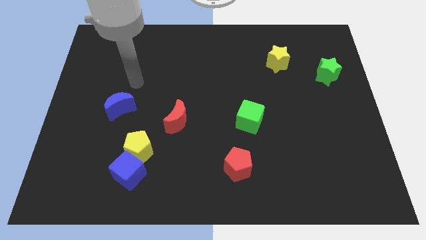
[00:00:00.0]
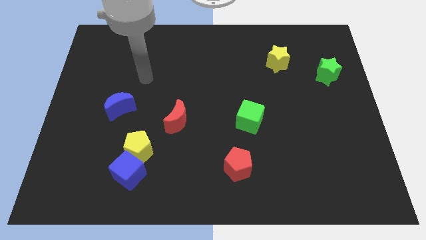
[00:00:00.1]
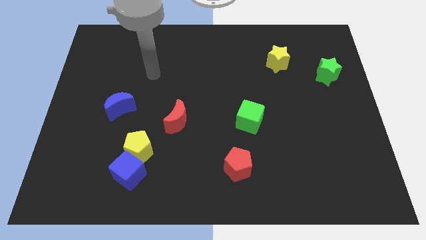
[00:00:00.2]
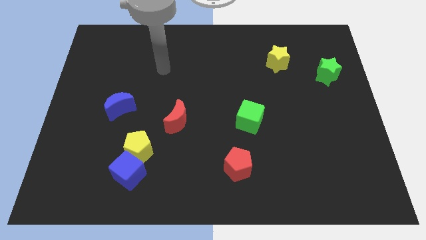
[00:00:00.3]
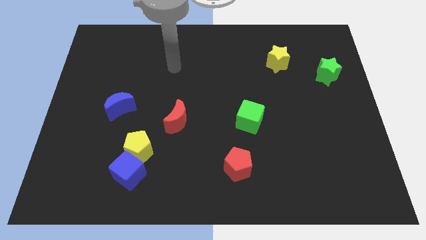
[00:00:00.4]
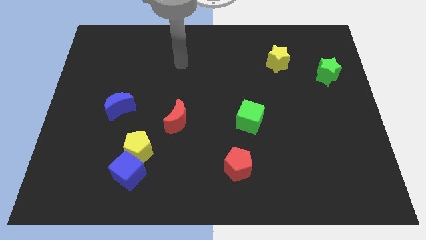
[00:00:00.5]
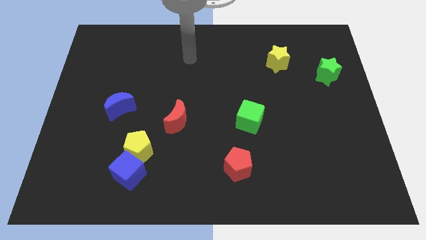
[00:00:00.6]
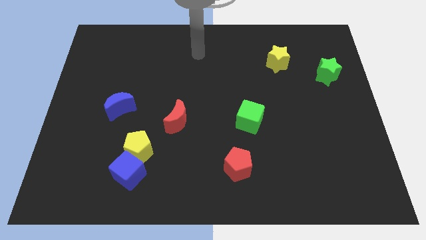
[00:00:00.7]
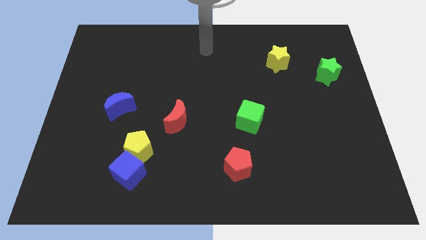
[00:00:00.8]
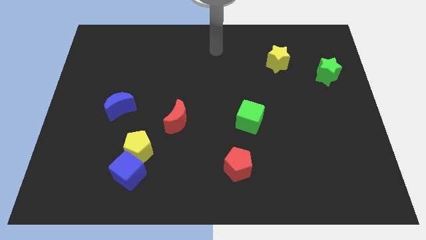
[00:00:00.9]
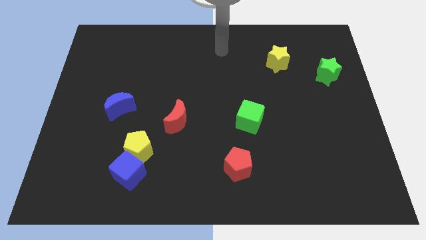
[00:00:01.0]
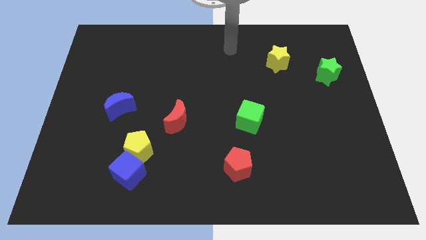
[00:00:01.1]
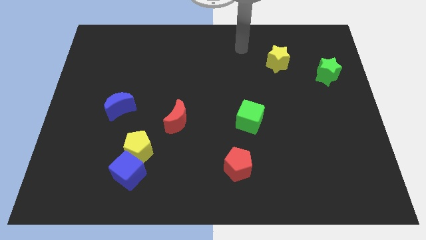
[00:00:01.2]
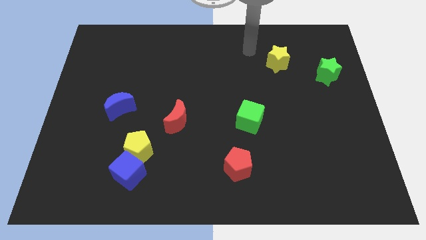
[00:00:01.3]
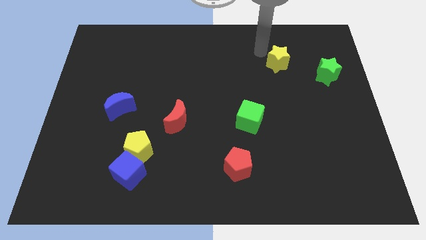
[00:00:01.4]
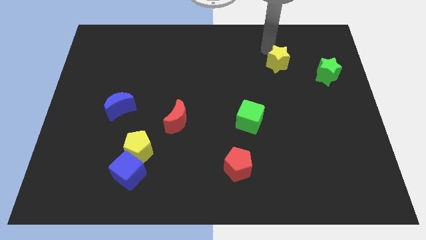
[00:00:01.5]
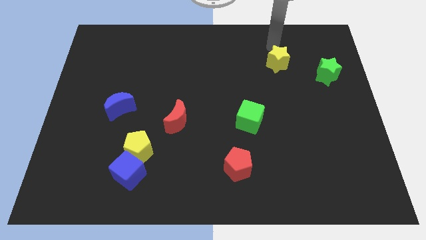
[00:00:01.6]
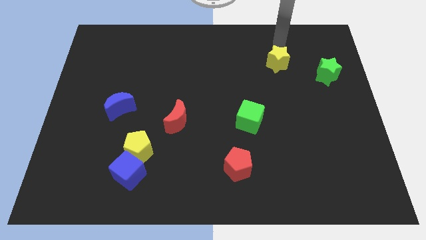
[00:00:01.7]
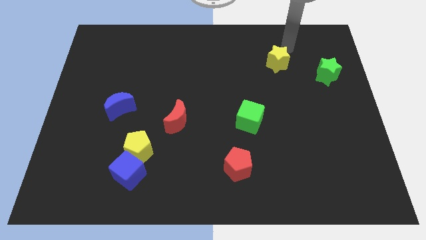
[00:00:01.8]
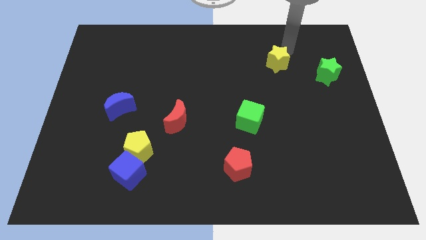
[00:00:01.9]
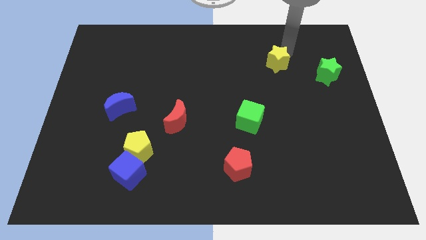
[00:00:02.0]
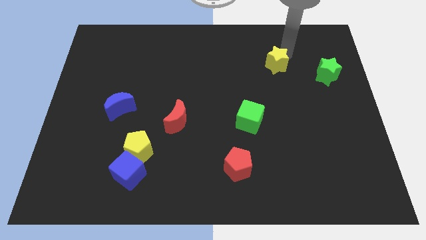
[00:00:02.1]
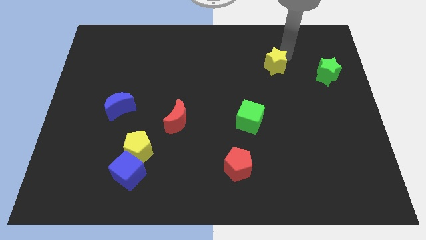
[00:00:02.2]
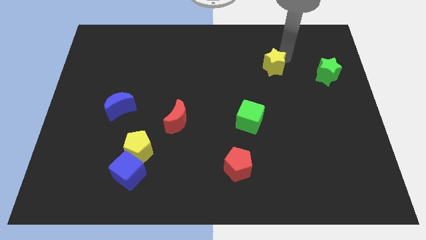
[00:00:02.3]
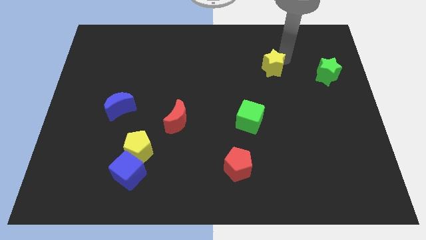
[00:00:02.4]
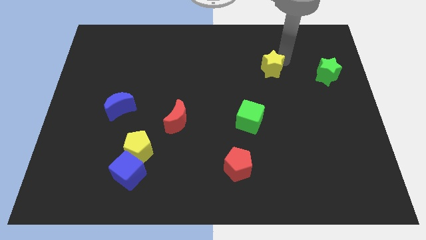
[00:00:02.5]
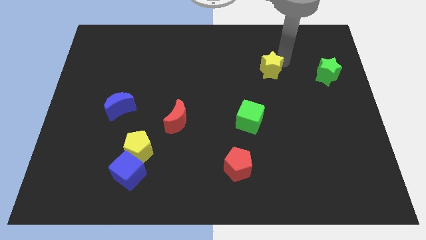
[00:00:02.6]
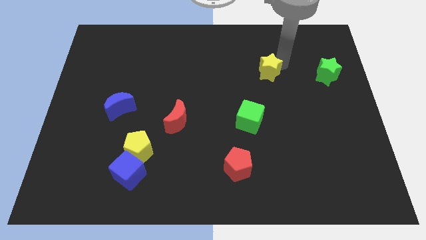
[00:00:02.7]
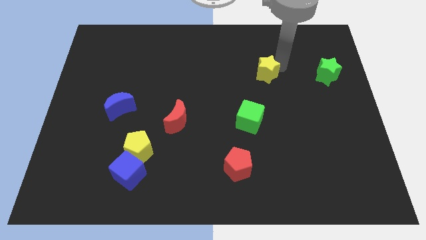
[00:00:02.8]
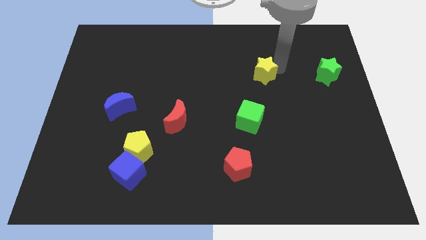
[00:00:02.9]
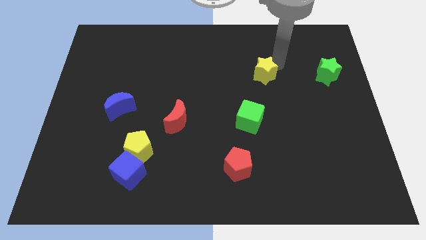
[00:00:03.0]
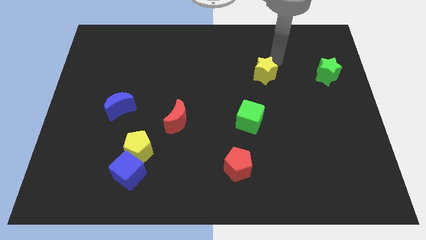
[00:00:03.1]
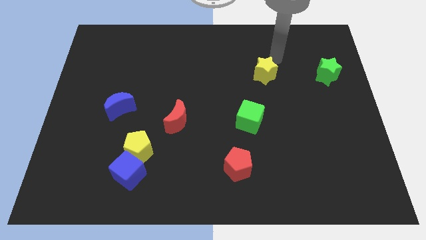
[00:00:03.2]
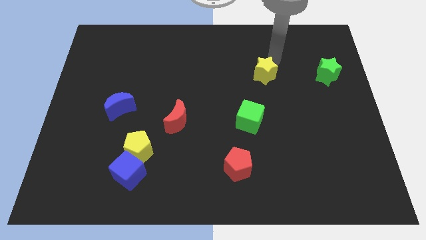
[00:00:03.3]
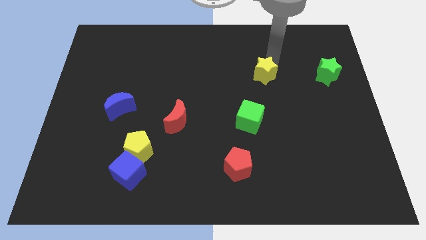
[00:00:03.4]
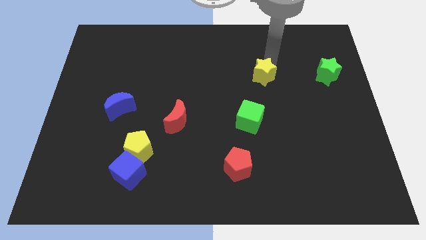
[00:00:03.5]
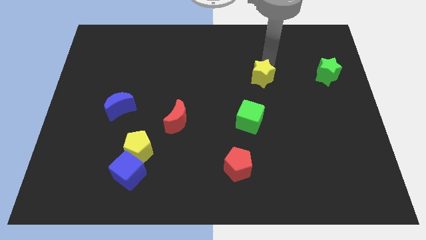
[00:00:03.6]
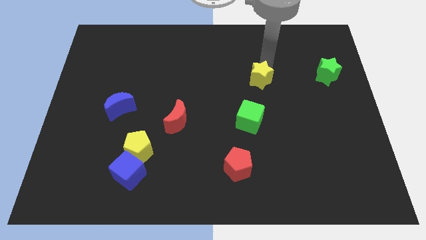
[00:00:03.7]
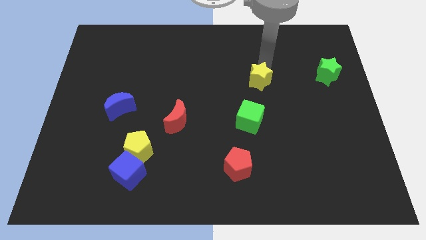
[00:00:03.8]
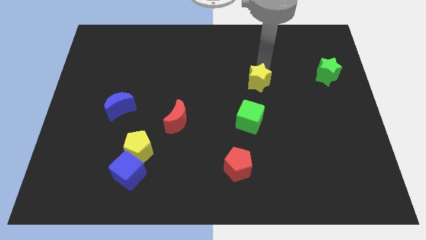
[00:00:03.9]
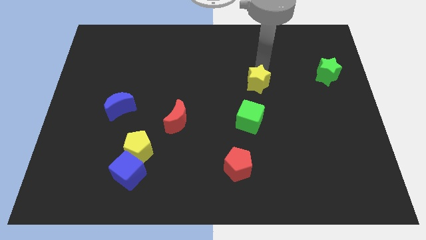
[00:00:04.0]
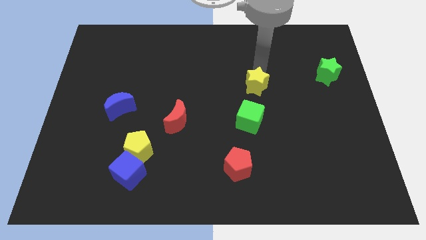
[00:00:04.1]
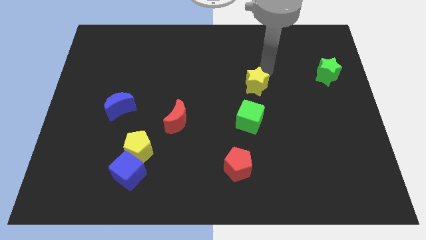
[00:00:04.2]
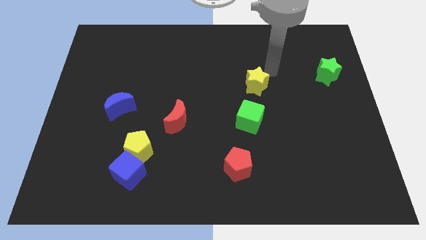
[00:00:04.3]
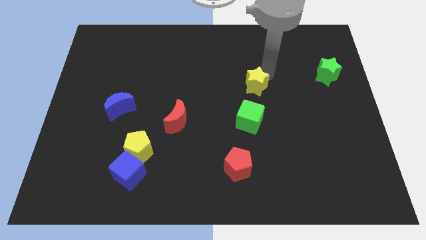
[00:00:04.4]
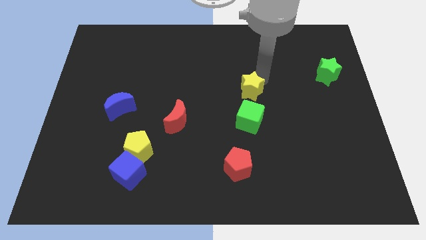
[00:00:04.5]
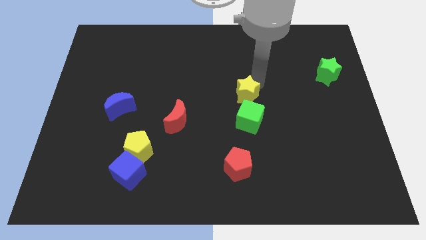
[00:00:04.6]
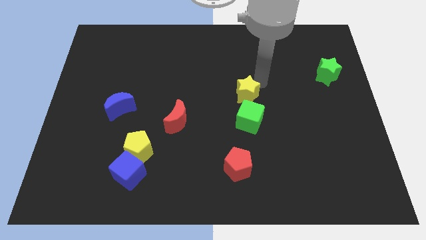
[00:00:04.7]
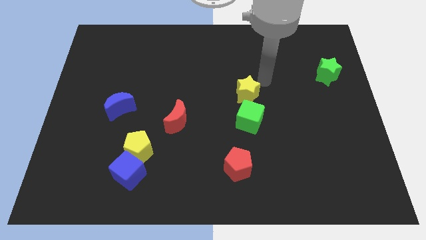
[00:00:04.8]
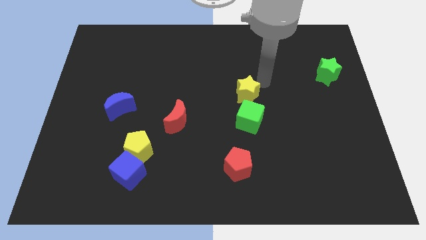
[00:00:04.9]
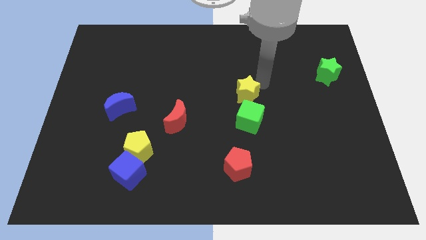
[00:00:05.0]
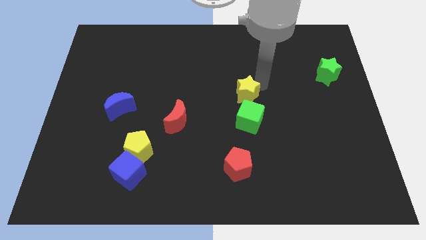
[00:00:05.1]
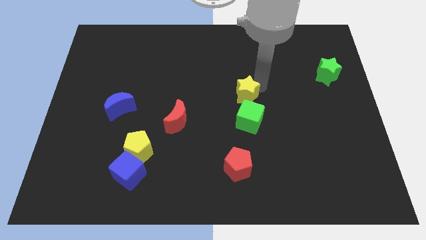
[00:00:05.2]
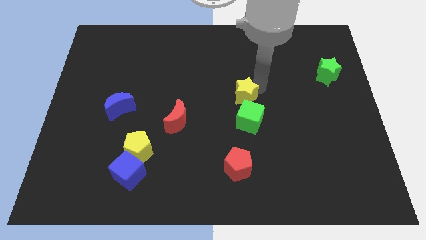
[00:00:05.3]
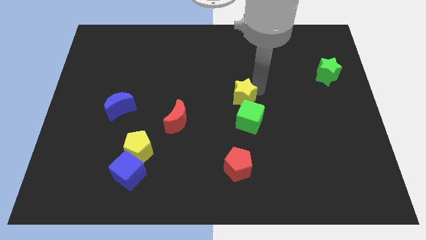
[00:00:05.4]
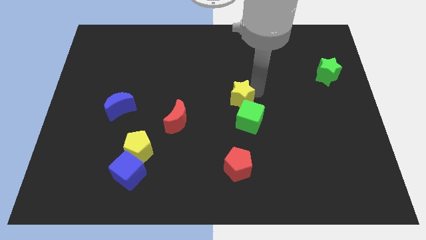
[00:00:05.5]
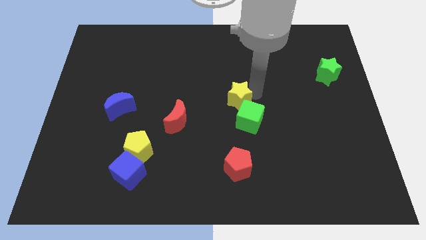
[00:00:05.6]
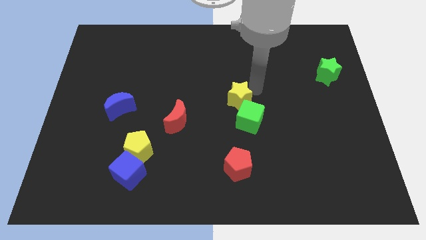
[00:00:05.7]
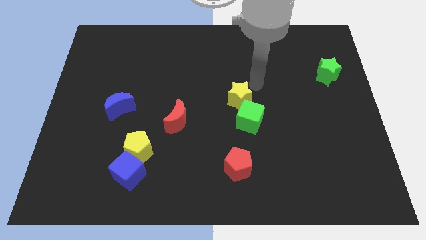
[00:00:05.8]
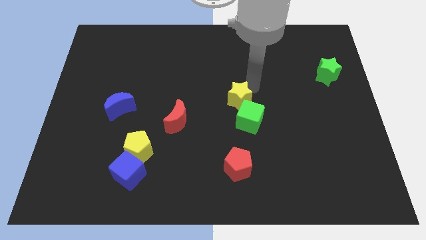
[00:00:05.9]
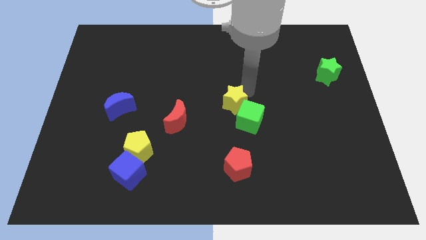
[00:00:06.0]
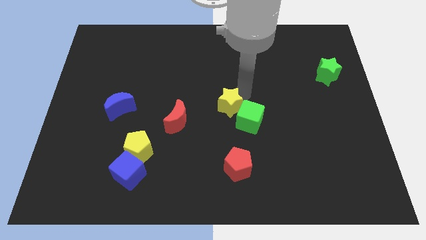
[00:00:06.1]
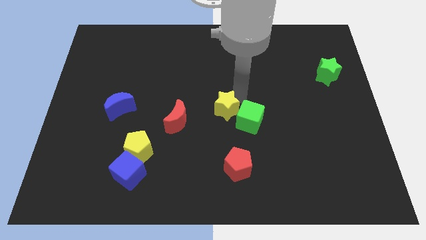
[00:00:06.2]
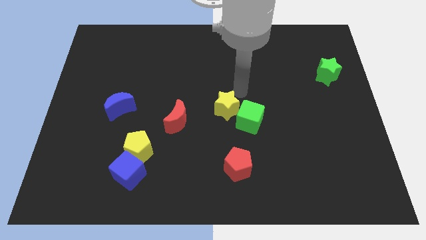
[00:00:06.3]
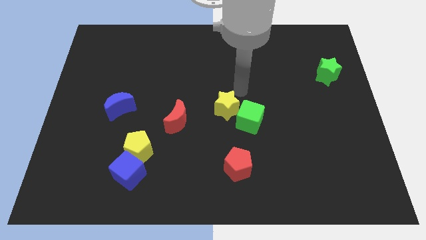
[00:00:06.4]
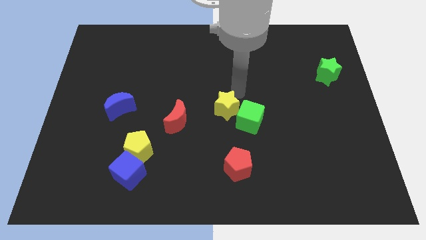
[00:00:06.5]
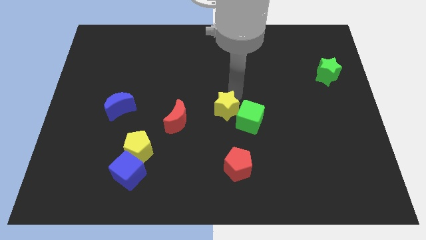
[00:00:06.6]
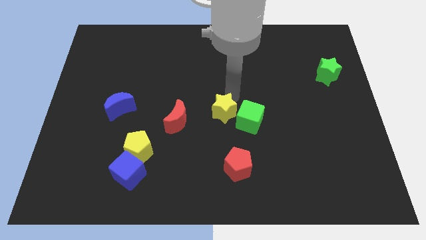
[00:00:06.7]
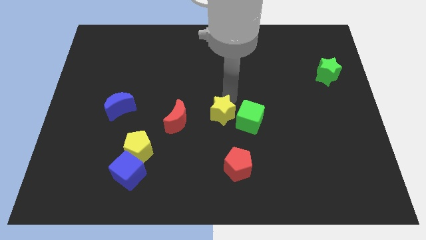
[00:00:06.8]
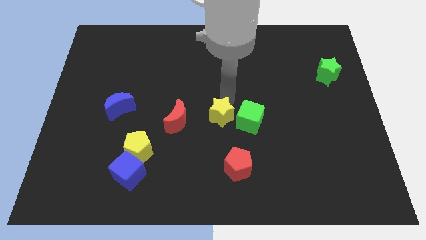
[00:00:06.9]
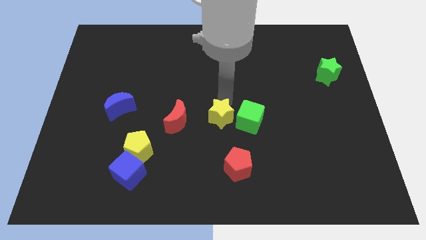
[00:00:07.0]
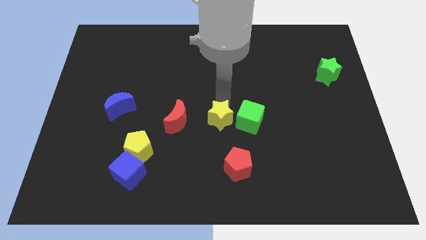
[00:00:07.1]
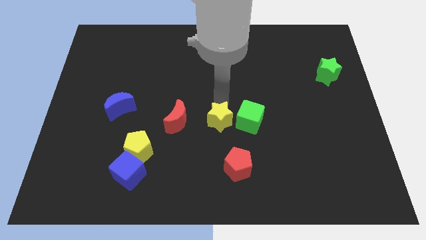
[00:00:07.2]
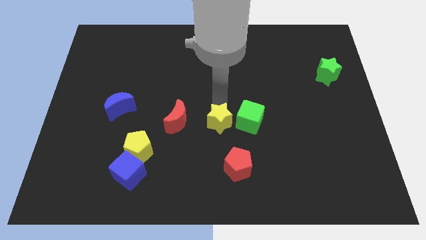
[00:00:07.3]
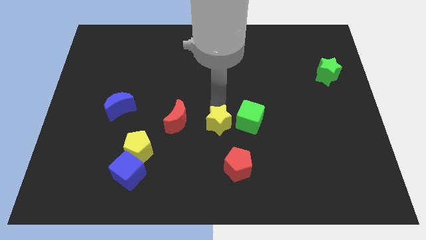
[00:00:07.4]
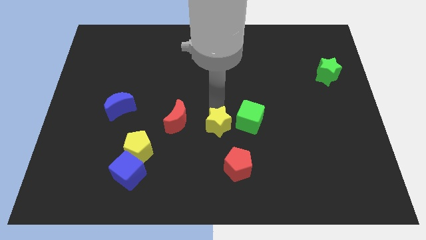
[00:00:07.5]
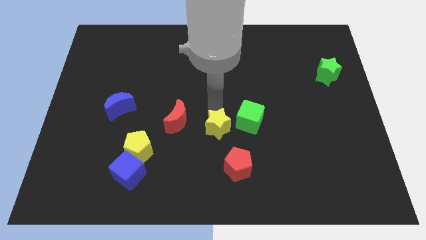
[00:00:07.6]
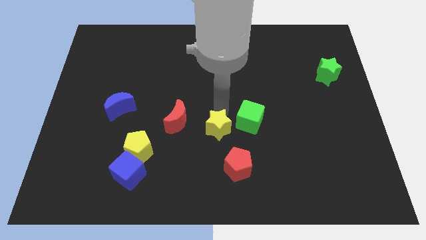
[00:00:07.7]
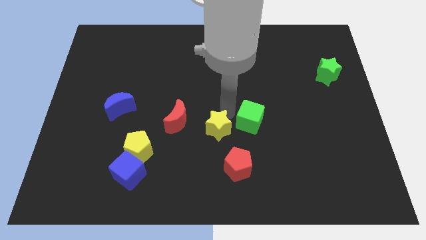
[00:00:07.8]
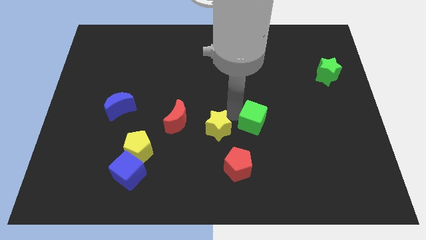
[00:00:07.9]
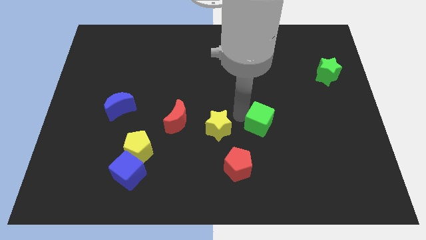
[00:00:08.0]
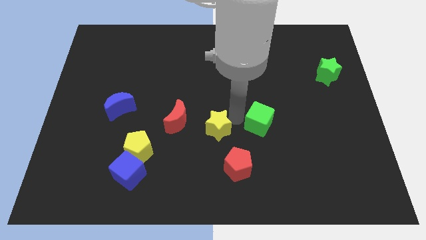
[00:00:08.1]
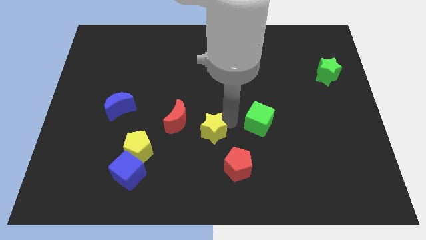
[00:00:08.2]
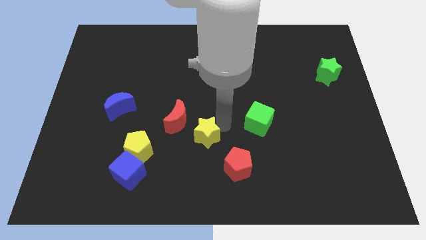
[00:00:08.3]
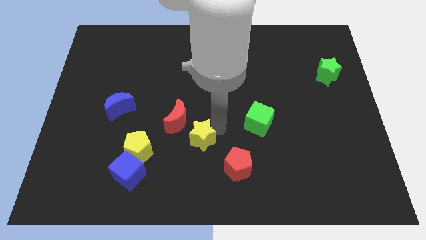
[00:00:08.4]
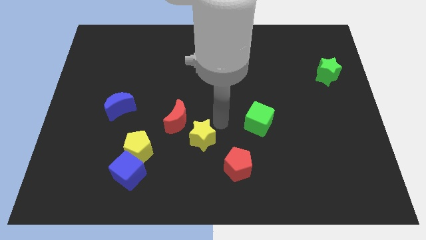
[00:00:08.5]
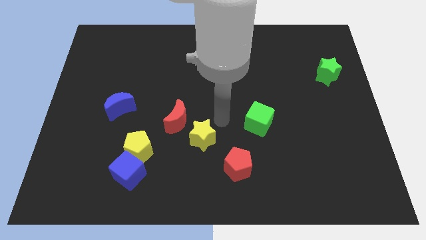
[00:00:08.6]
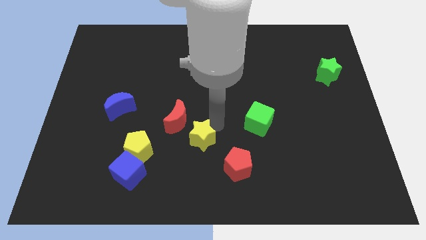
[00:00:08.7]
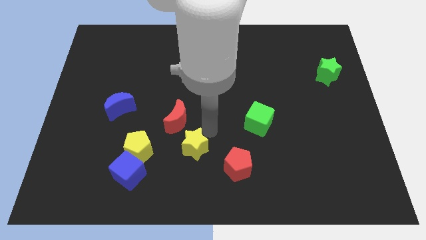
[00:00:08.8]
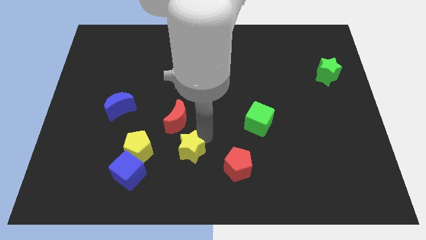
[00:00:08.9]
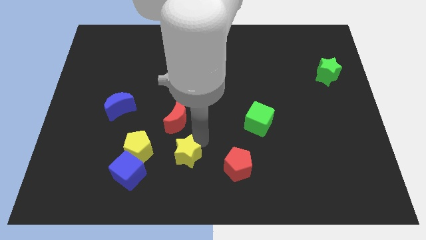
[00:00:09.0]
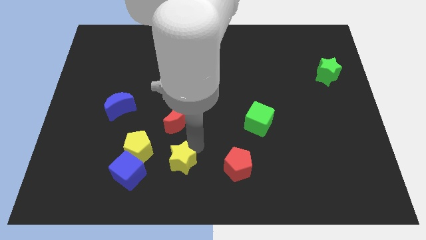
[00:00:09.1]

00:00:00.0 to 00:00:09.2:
move the yellow star diagonally down and to the right of the yellow pentagon
